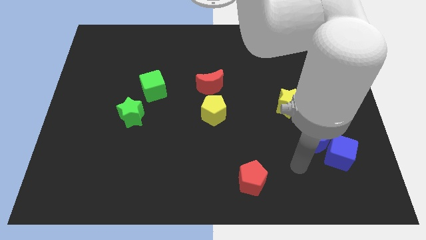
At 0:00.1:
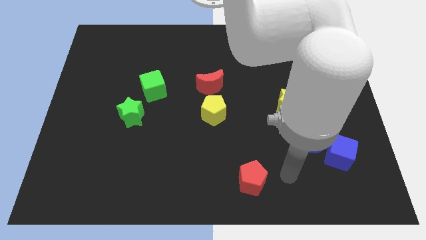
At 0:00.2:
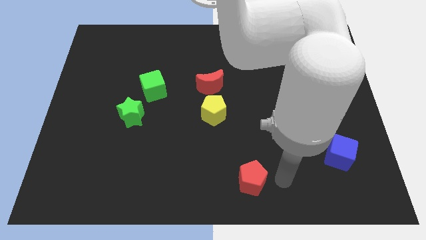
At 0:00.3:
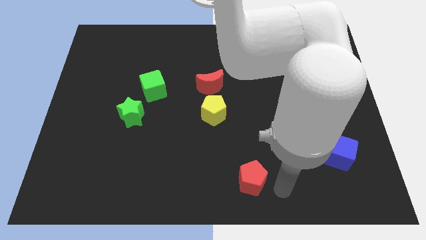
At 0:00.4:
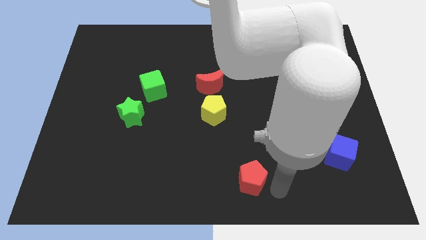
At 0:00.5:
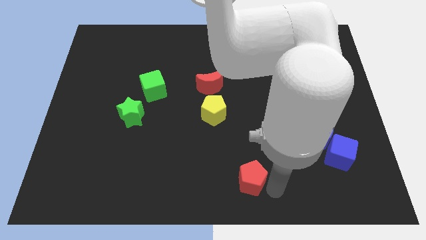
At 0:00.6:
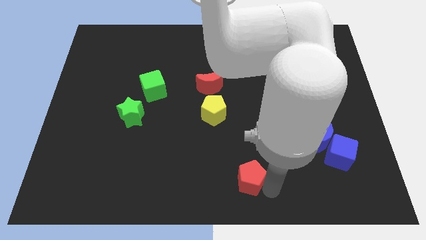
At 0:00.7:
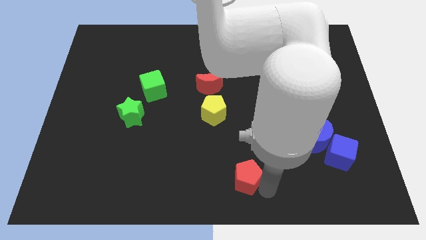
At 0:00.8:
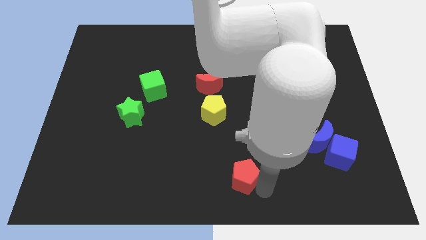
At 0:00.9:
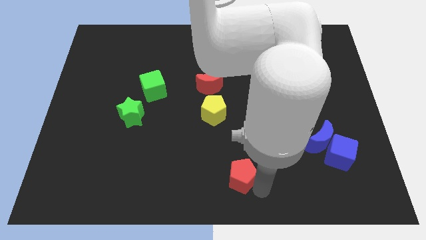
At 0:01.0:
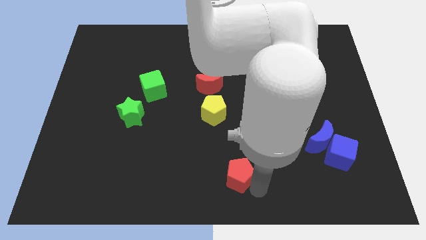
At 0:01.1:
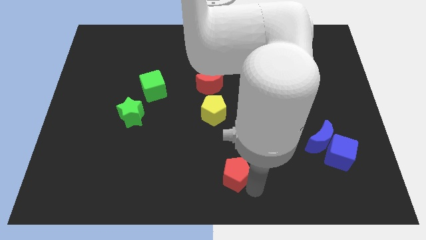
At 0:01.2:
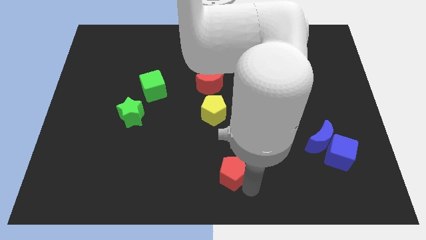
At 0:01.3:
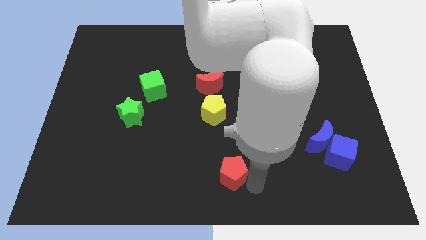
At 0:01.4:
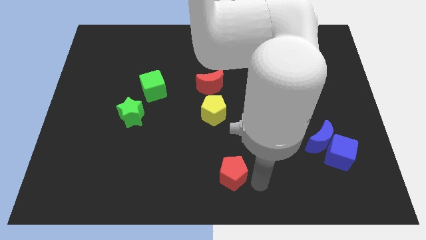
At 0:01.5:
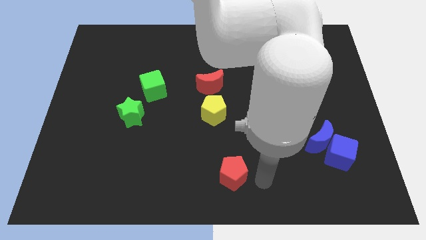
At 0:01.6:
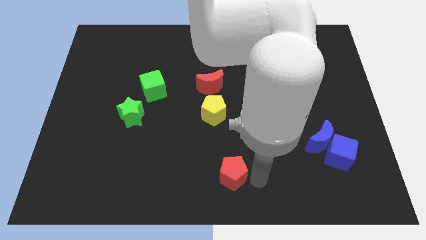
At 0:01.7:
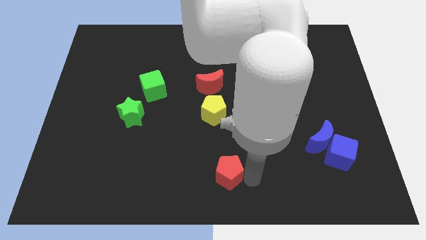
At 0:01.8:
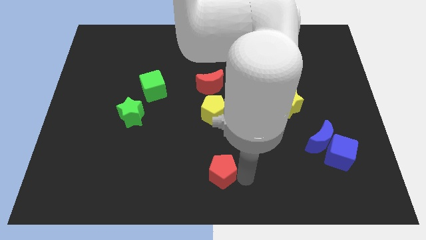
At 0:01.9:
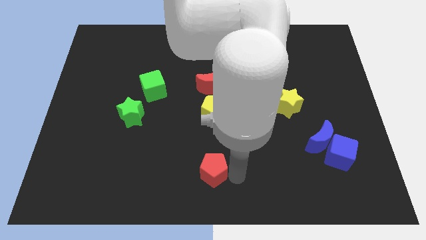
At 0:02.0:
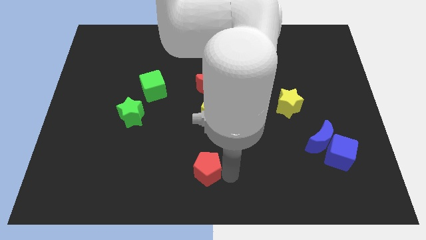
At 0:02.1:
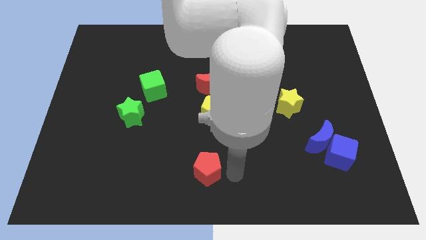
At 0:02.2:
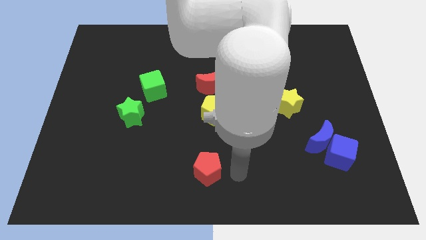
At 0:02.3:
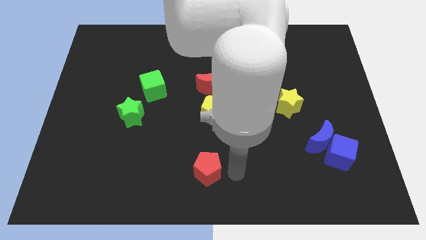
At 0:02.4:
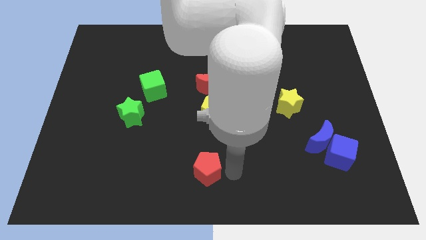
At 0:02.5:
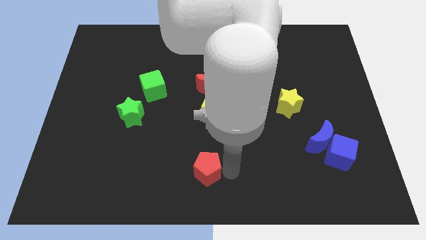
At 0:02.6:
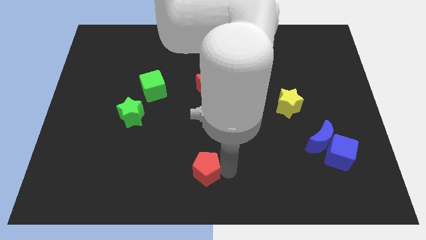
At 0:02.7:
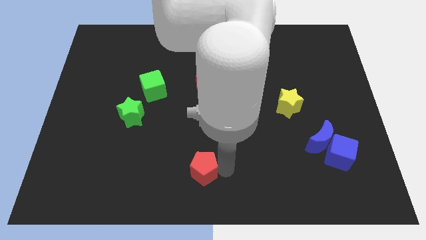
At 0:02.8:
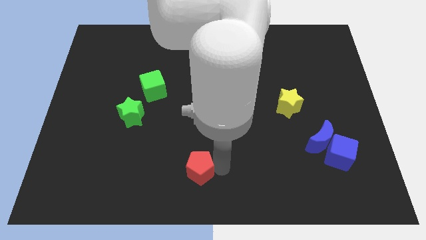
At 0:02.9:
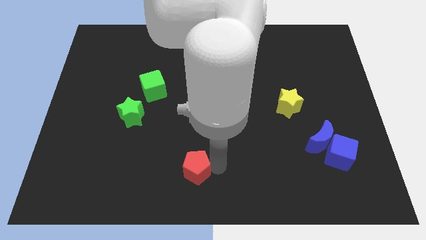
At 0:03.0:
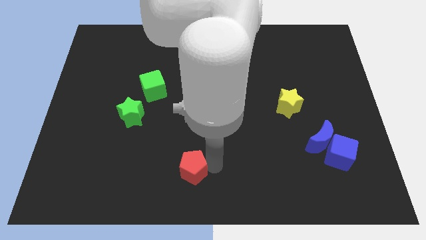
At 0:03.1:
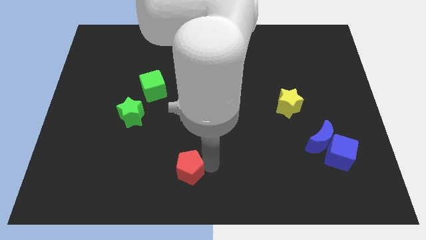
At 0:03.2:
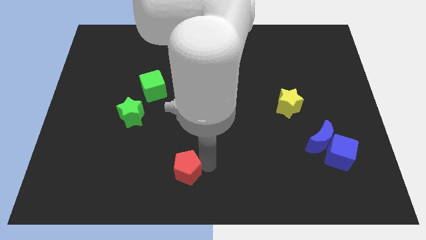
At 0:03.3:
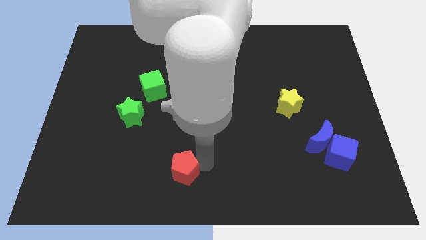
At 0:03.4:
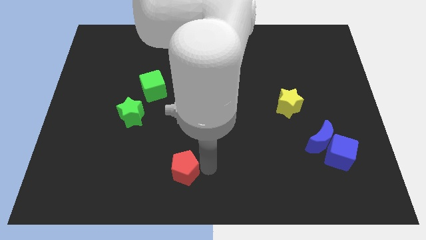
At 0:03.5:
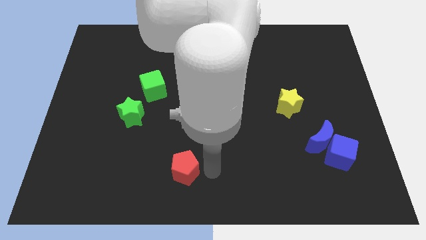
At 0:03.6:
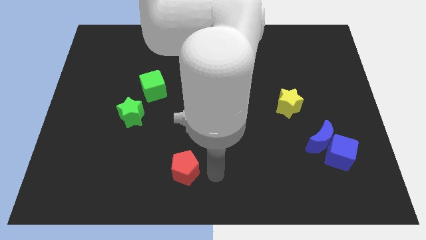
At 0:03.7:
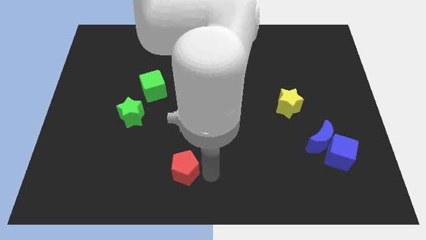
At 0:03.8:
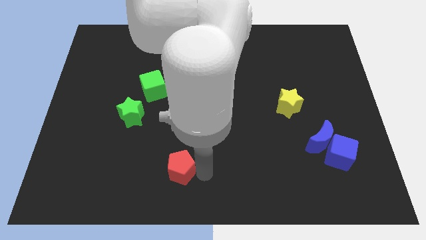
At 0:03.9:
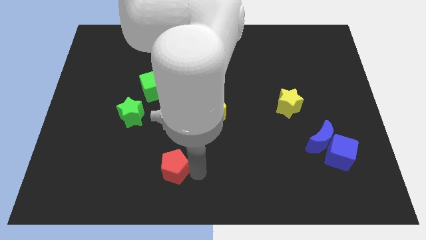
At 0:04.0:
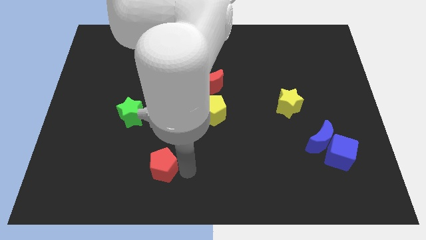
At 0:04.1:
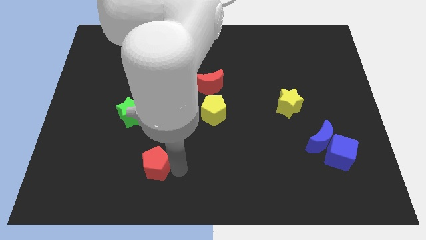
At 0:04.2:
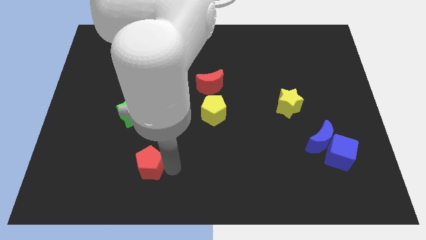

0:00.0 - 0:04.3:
move the red pentagon to the left

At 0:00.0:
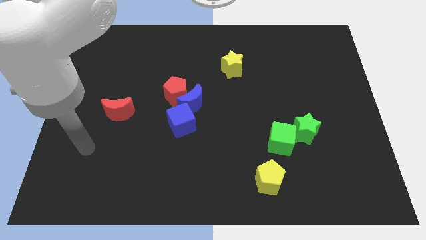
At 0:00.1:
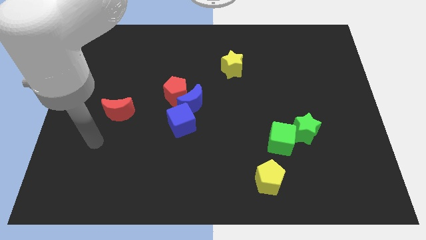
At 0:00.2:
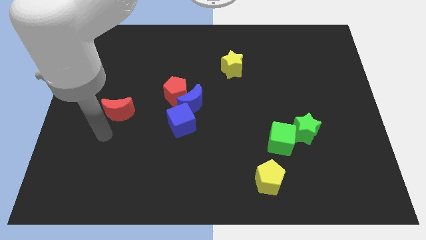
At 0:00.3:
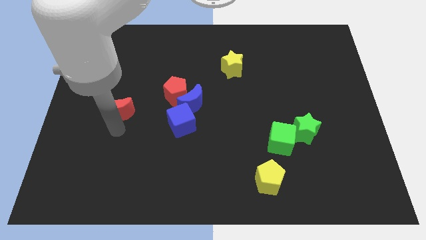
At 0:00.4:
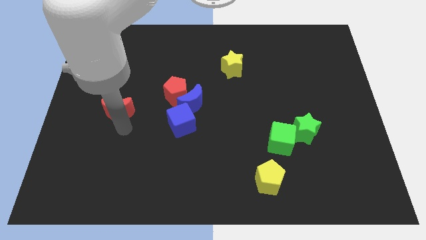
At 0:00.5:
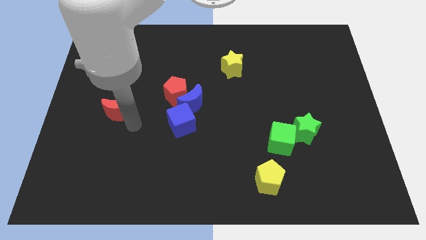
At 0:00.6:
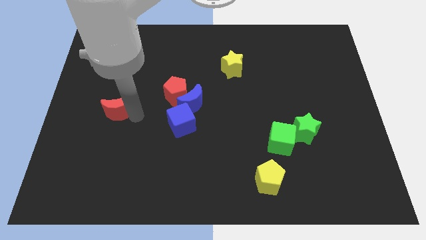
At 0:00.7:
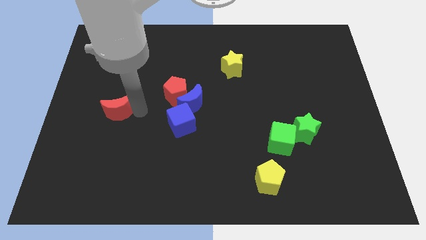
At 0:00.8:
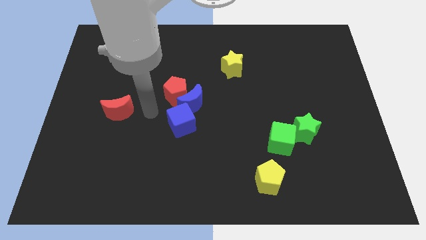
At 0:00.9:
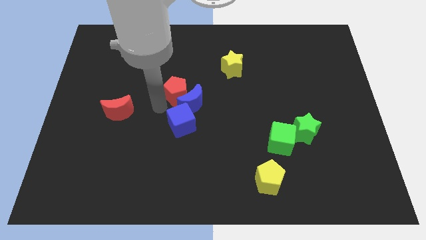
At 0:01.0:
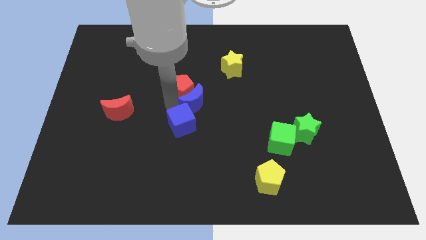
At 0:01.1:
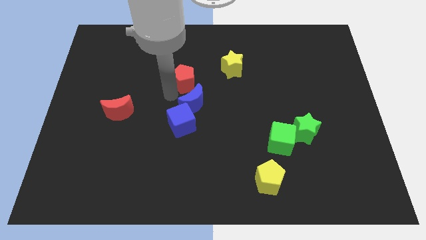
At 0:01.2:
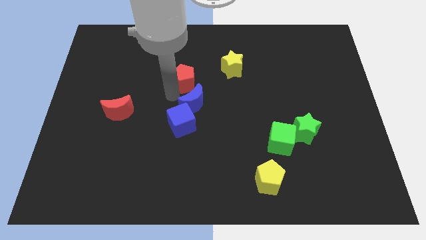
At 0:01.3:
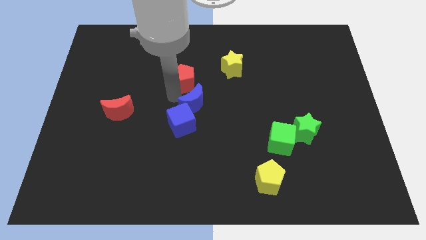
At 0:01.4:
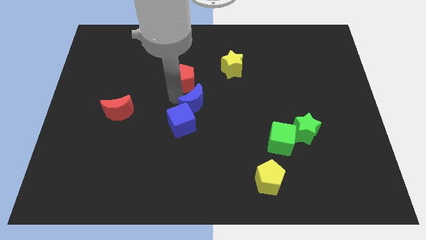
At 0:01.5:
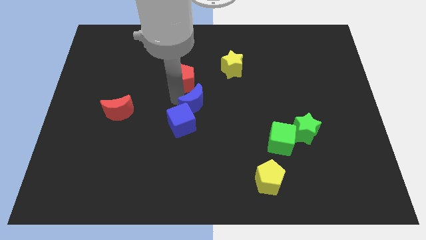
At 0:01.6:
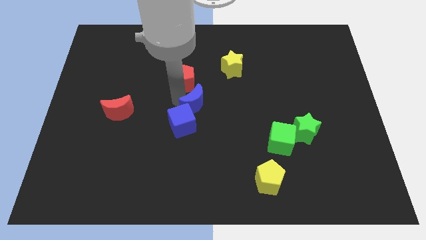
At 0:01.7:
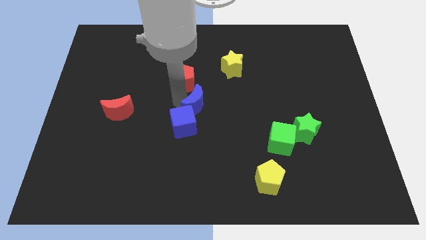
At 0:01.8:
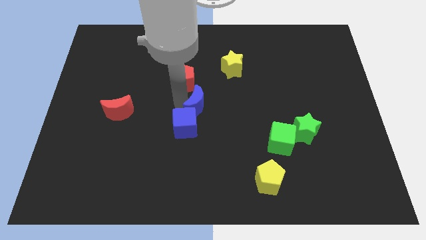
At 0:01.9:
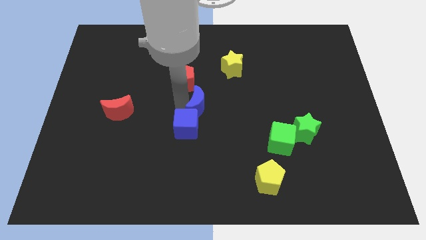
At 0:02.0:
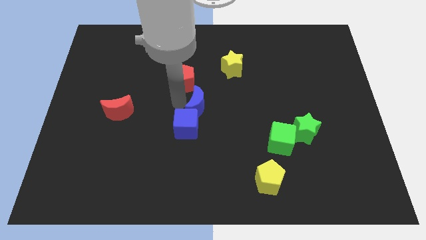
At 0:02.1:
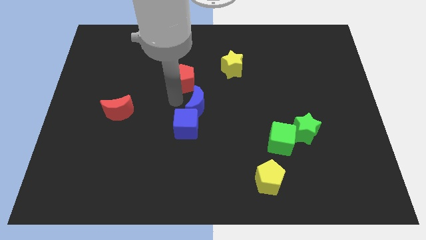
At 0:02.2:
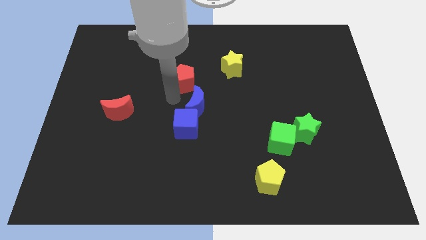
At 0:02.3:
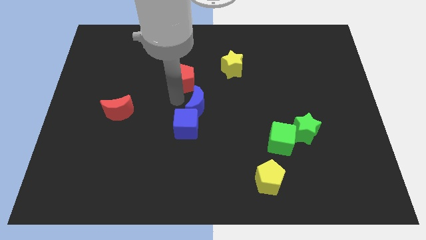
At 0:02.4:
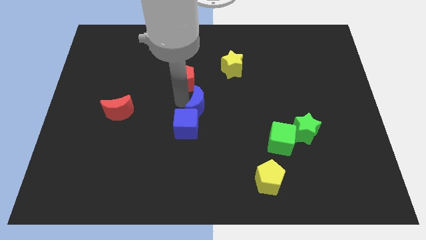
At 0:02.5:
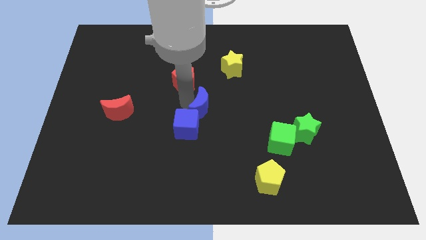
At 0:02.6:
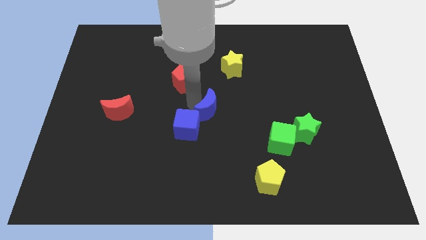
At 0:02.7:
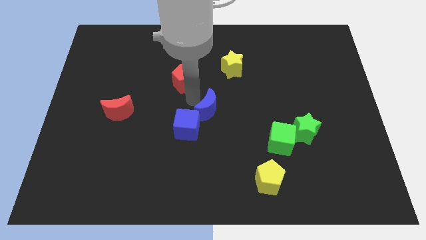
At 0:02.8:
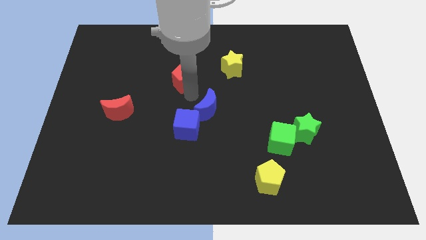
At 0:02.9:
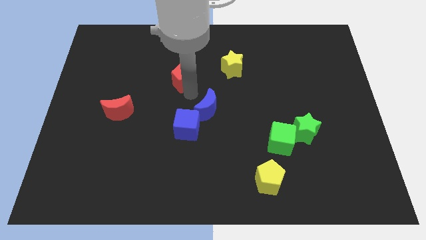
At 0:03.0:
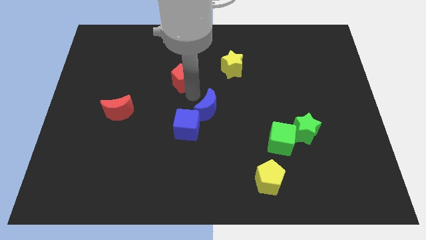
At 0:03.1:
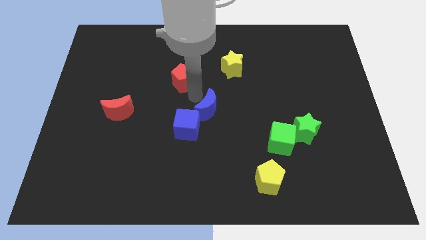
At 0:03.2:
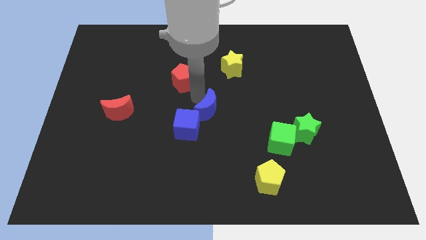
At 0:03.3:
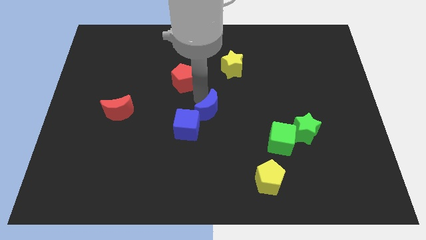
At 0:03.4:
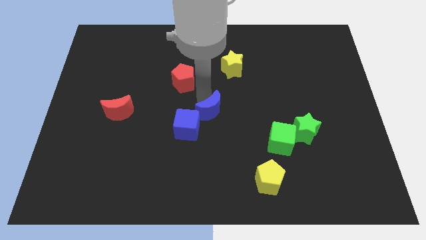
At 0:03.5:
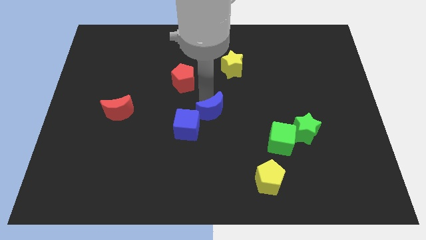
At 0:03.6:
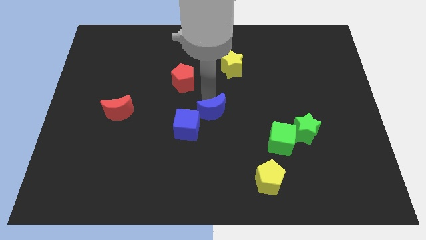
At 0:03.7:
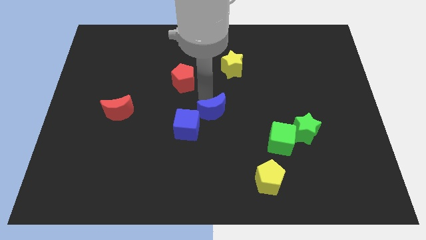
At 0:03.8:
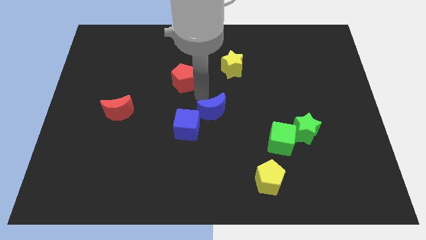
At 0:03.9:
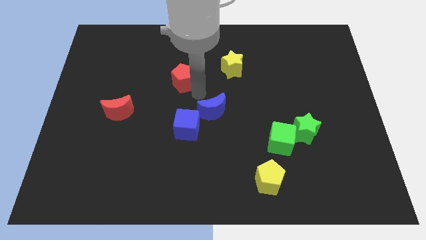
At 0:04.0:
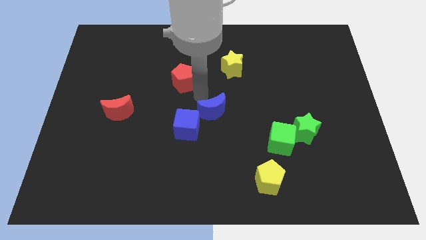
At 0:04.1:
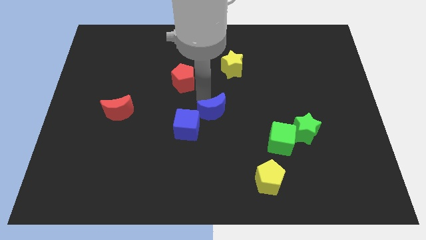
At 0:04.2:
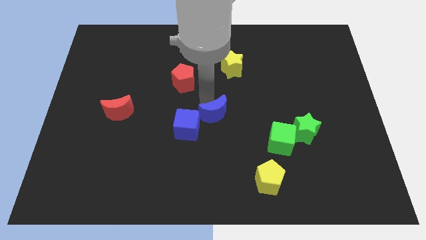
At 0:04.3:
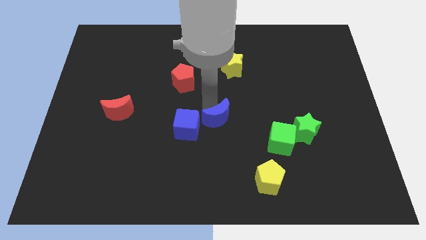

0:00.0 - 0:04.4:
push the blue moon a bit downwards and then right
